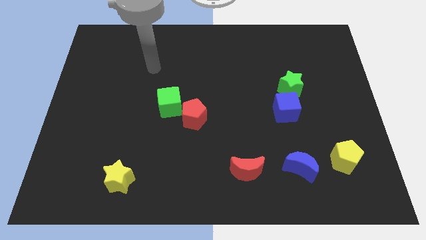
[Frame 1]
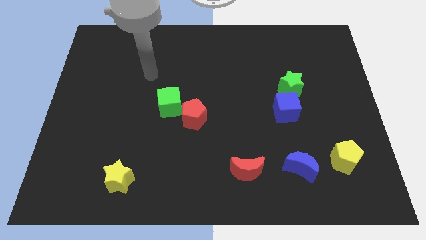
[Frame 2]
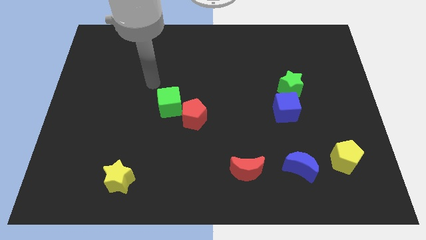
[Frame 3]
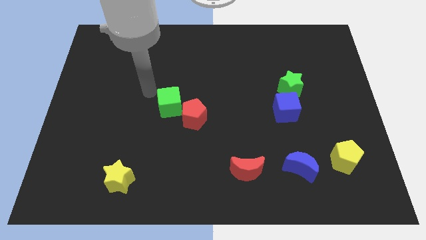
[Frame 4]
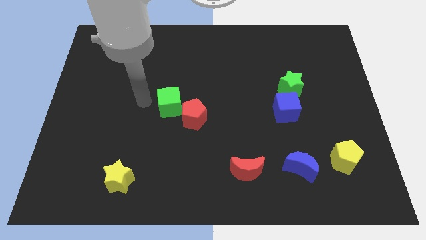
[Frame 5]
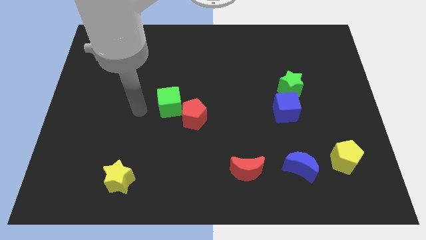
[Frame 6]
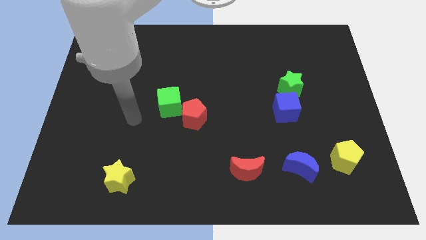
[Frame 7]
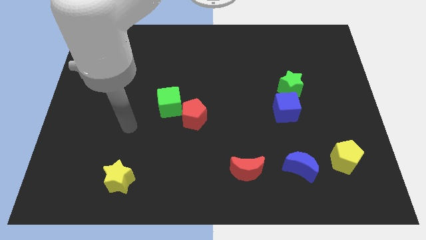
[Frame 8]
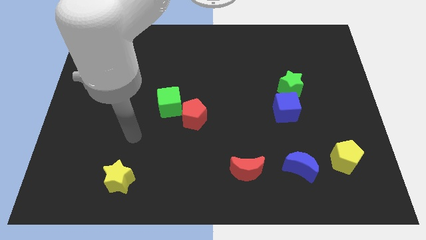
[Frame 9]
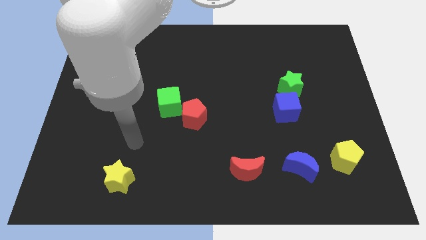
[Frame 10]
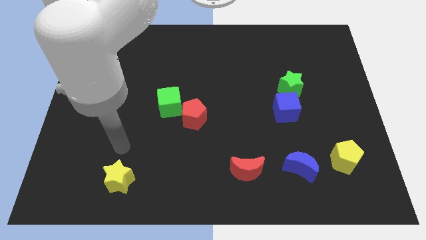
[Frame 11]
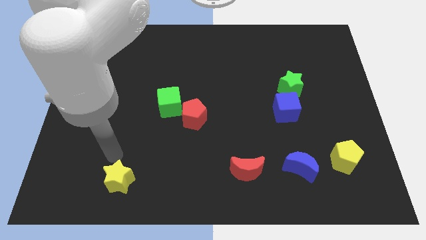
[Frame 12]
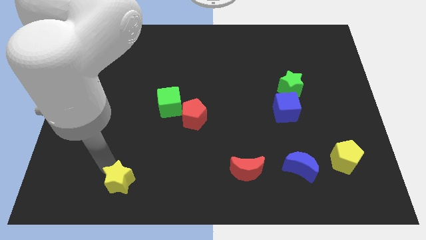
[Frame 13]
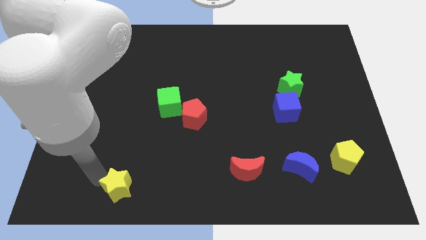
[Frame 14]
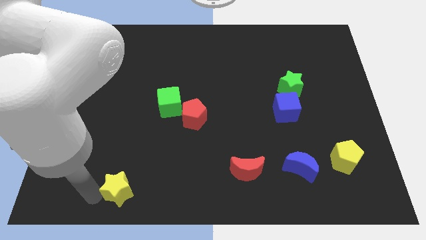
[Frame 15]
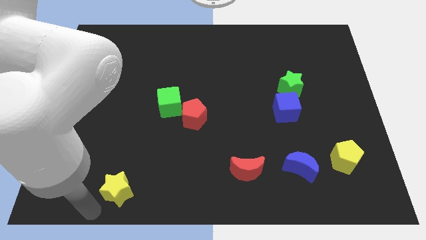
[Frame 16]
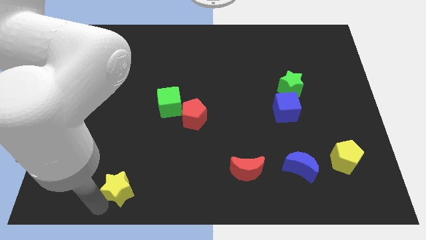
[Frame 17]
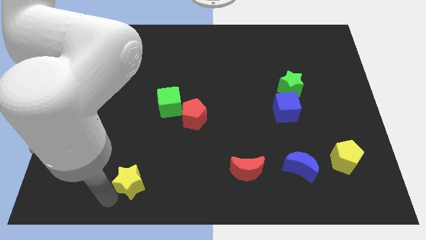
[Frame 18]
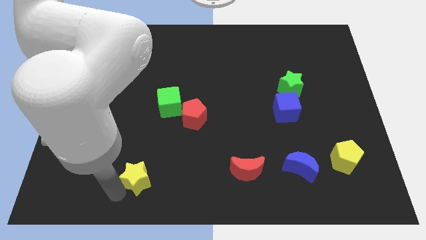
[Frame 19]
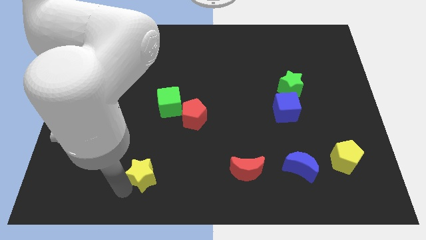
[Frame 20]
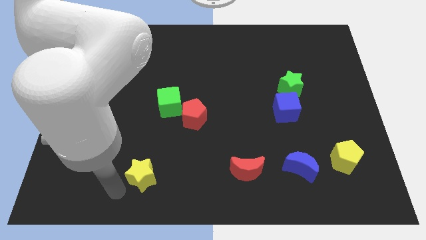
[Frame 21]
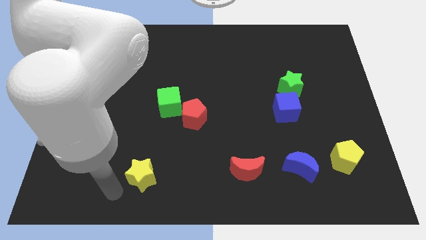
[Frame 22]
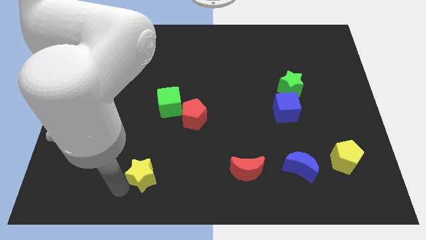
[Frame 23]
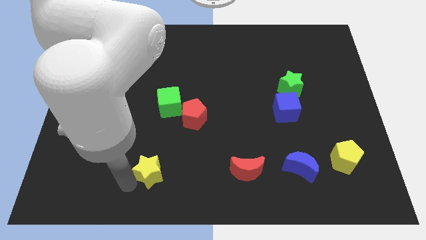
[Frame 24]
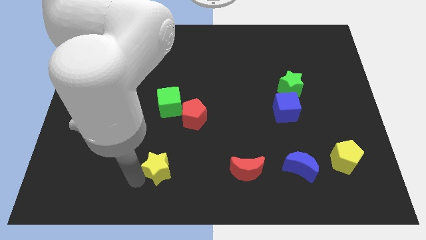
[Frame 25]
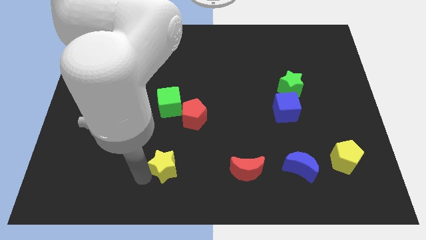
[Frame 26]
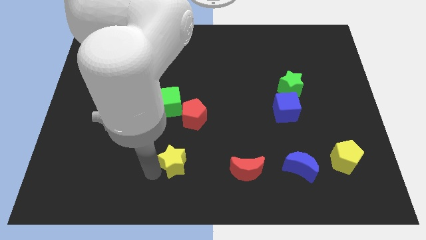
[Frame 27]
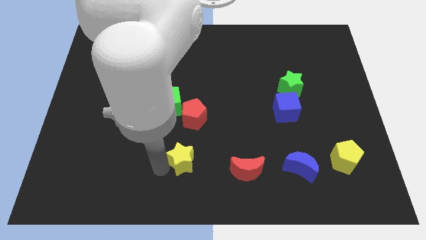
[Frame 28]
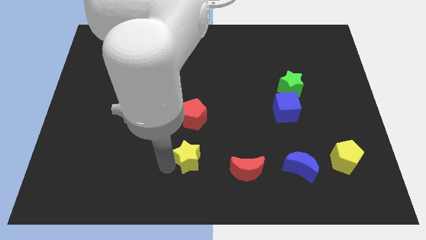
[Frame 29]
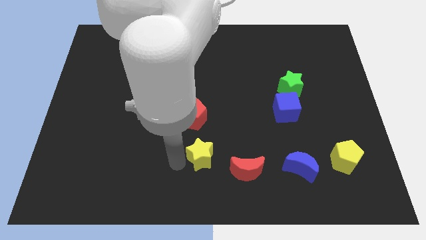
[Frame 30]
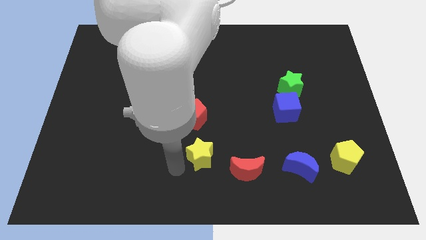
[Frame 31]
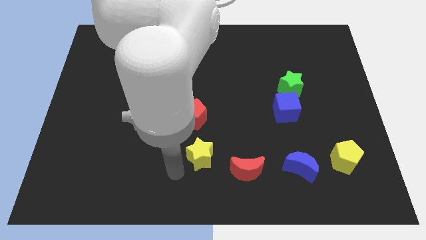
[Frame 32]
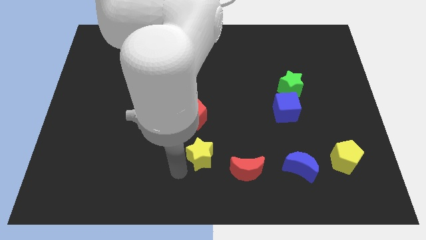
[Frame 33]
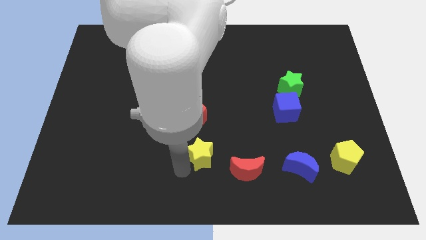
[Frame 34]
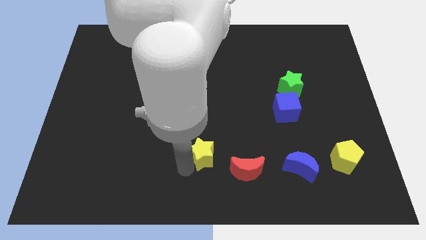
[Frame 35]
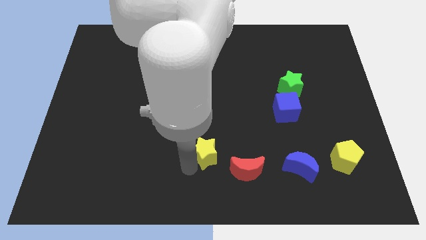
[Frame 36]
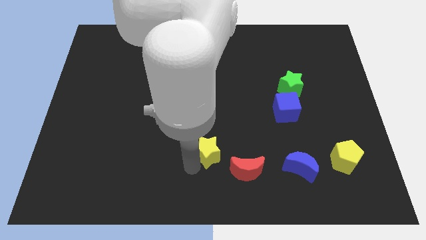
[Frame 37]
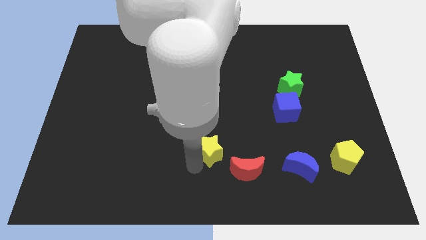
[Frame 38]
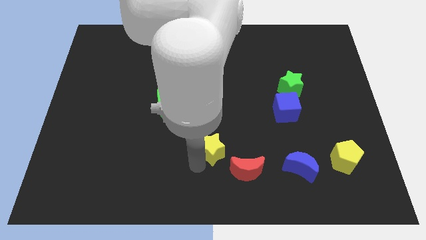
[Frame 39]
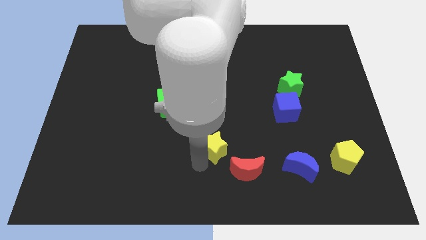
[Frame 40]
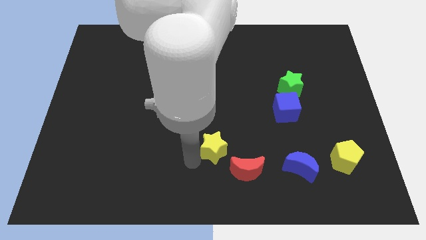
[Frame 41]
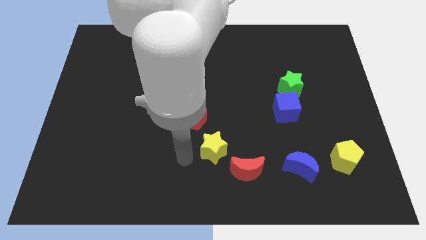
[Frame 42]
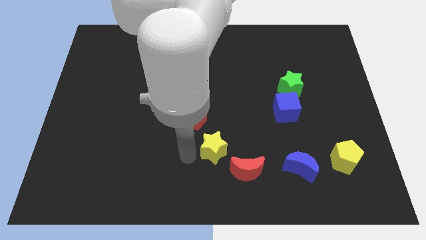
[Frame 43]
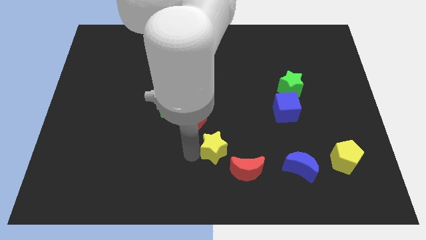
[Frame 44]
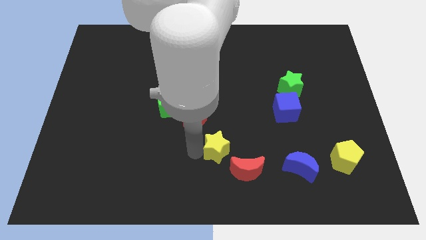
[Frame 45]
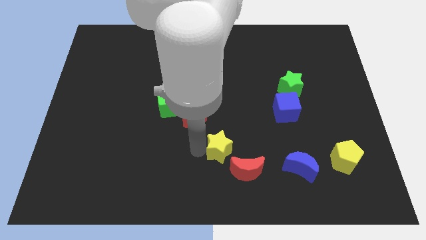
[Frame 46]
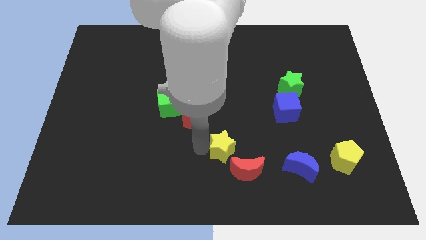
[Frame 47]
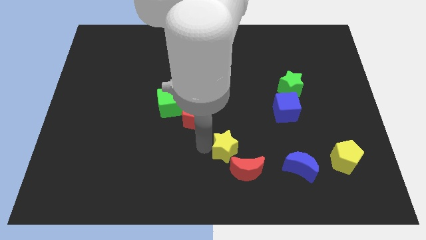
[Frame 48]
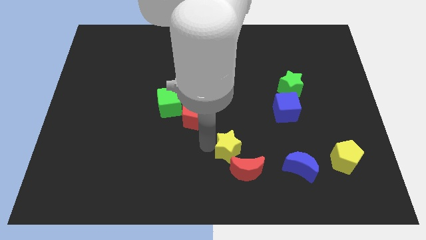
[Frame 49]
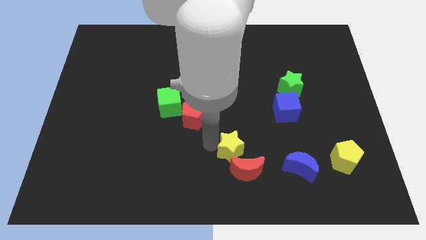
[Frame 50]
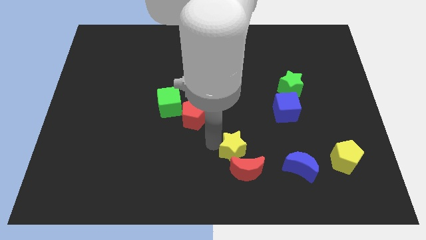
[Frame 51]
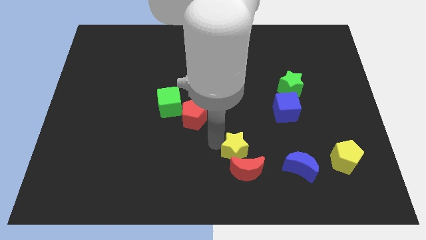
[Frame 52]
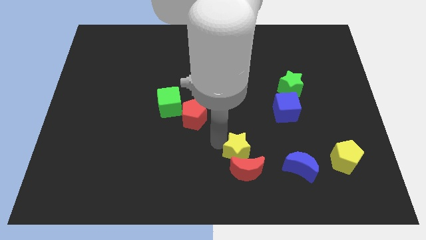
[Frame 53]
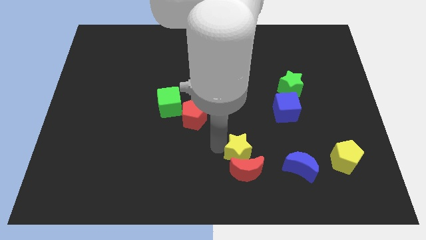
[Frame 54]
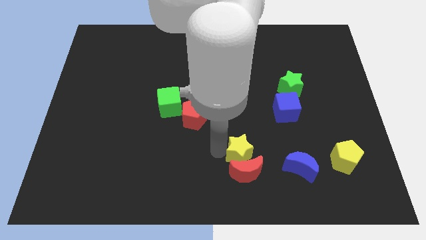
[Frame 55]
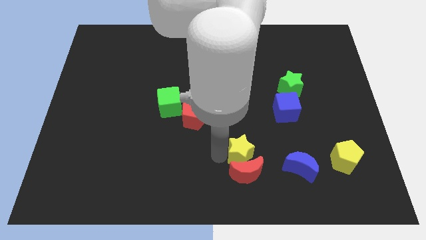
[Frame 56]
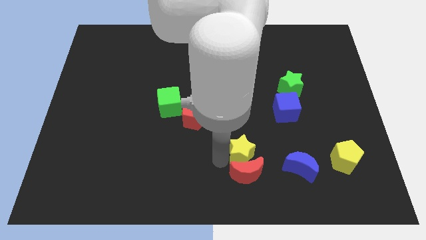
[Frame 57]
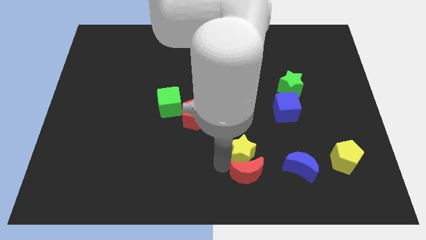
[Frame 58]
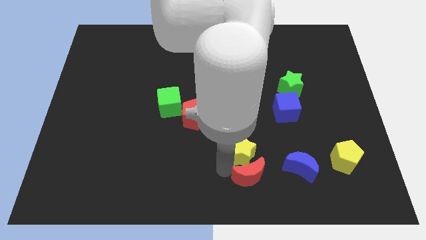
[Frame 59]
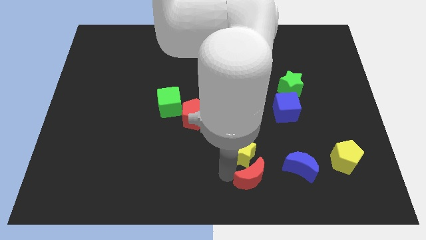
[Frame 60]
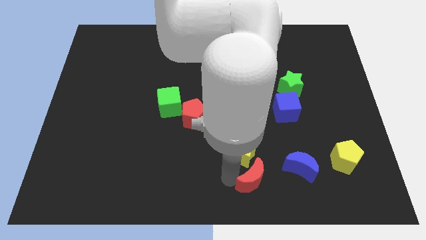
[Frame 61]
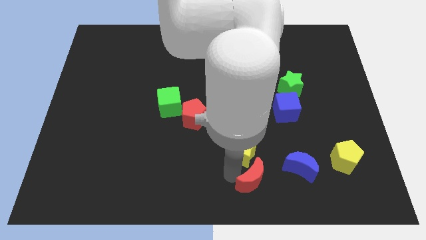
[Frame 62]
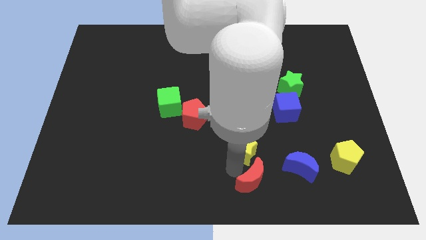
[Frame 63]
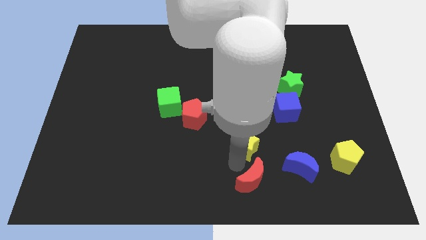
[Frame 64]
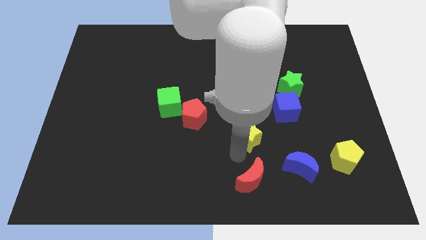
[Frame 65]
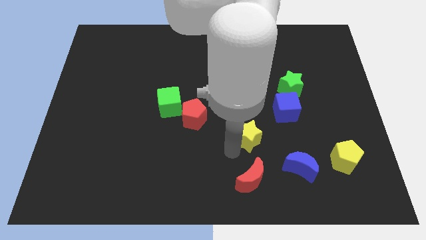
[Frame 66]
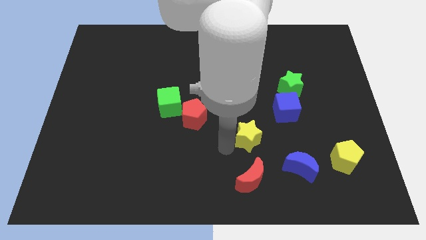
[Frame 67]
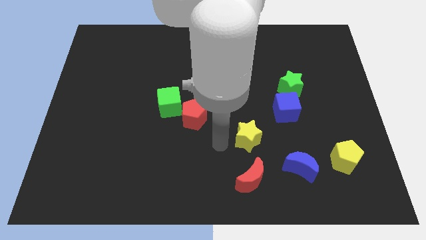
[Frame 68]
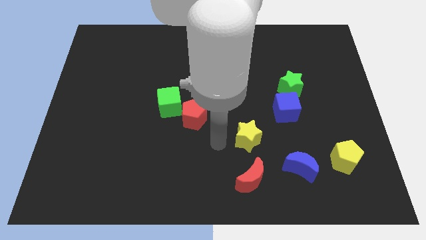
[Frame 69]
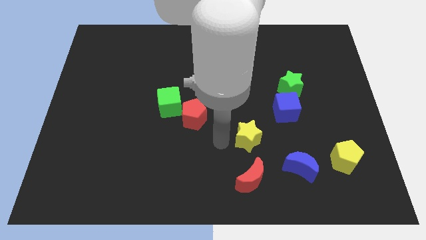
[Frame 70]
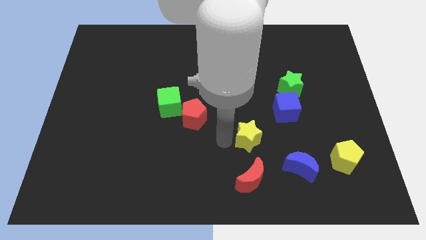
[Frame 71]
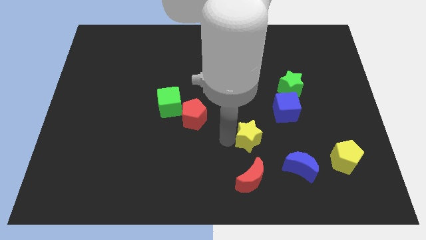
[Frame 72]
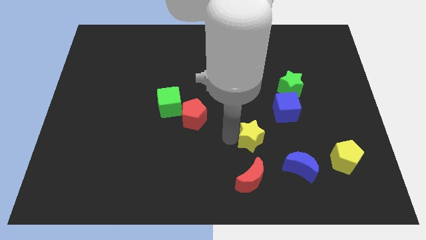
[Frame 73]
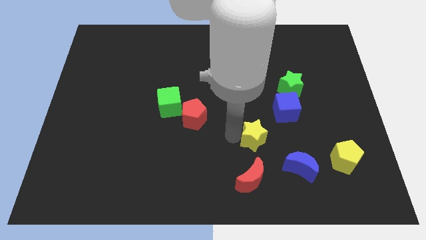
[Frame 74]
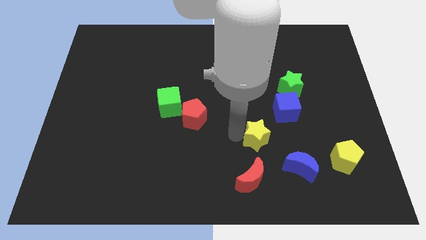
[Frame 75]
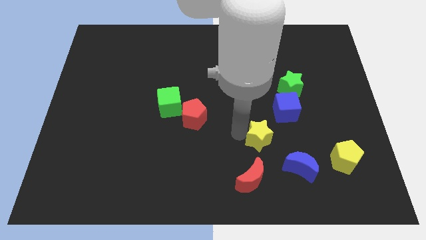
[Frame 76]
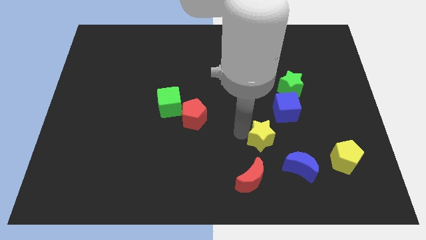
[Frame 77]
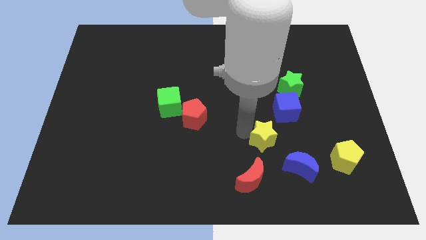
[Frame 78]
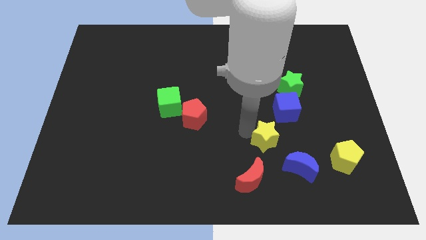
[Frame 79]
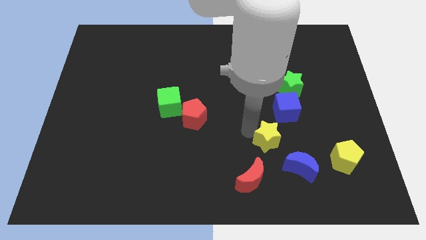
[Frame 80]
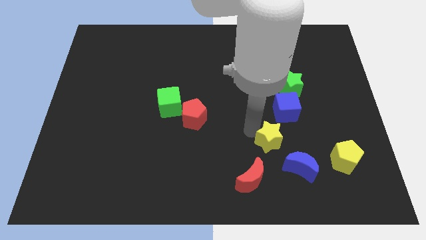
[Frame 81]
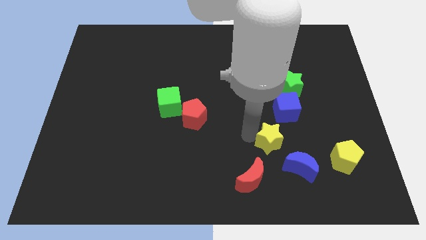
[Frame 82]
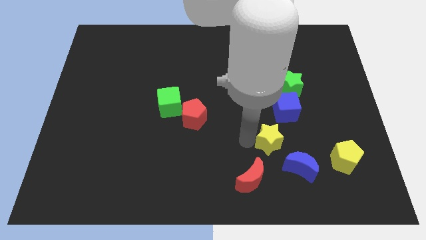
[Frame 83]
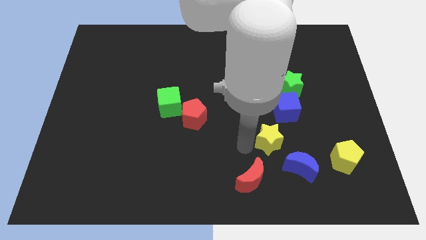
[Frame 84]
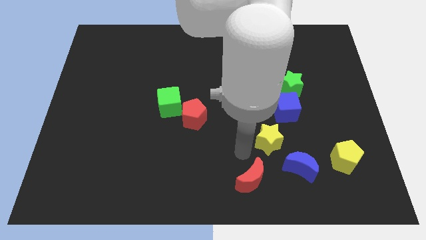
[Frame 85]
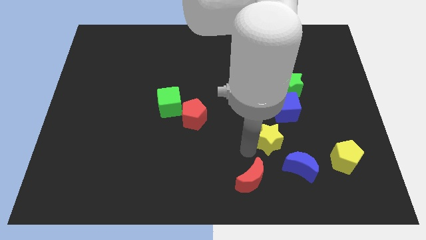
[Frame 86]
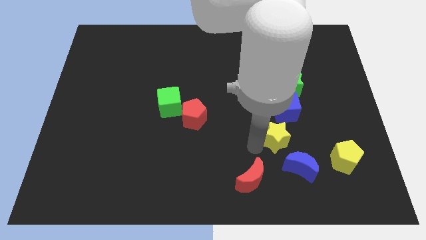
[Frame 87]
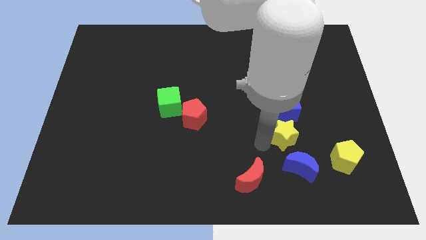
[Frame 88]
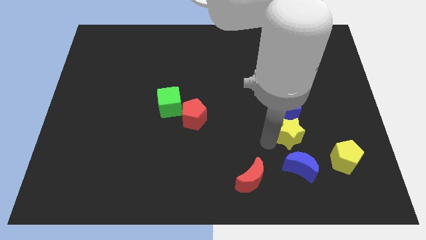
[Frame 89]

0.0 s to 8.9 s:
slide the yellow star diagonally down and to the right of the blue cube
